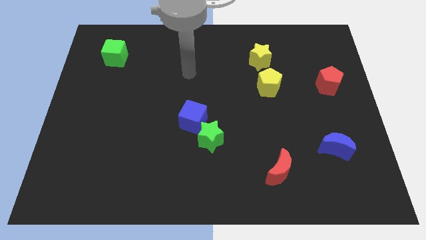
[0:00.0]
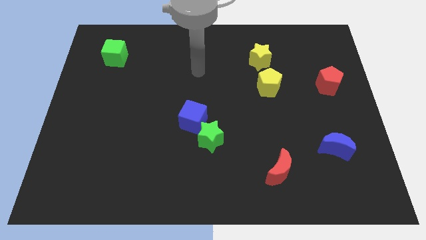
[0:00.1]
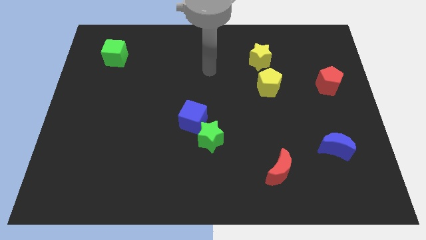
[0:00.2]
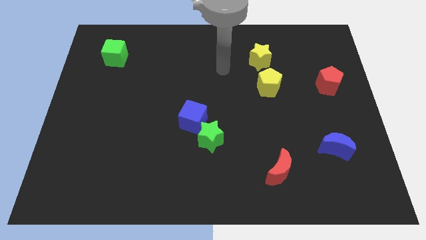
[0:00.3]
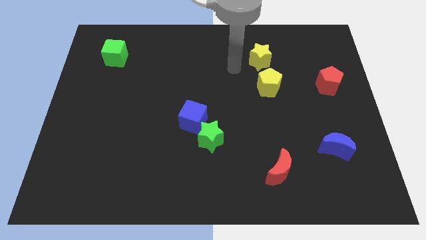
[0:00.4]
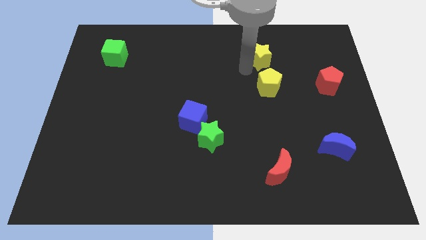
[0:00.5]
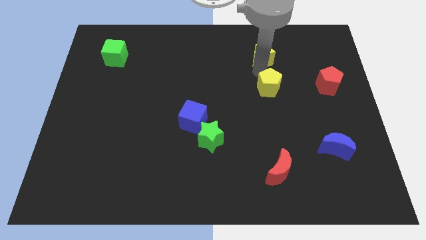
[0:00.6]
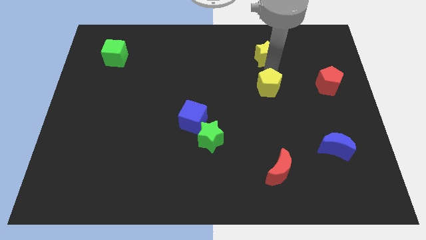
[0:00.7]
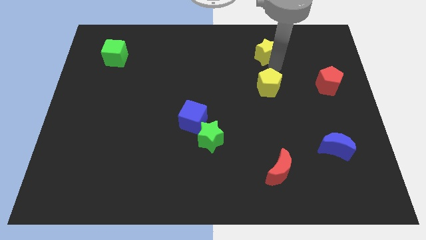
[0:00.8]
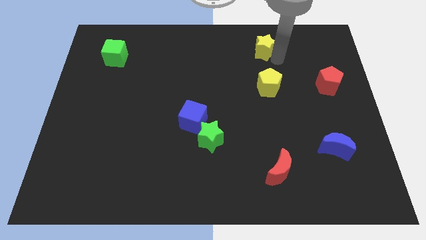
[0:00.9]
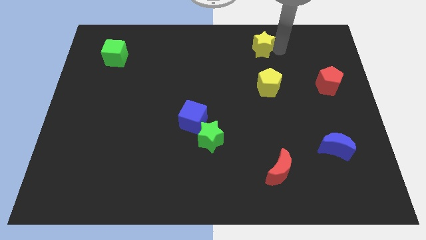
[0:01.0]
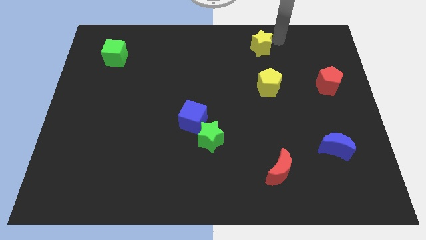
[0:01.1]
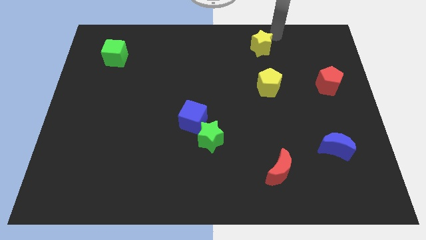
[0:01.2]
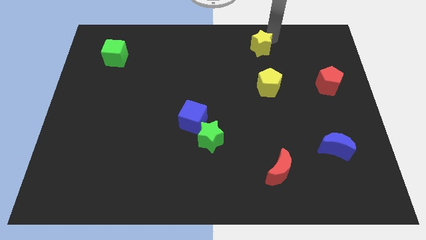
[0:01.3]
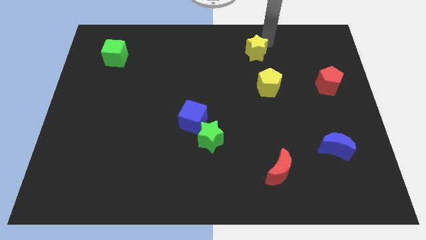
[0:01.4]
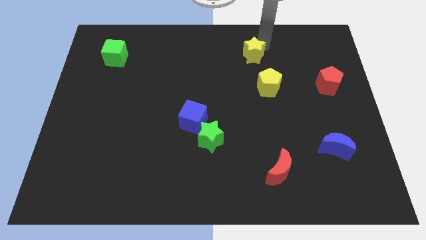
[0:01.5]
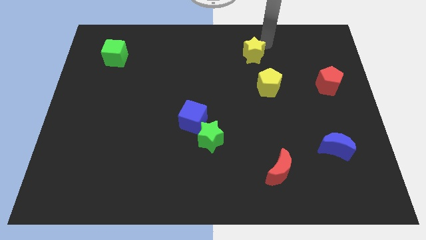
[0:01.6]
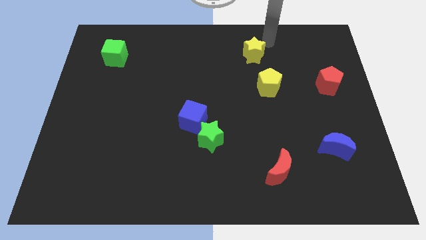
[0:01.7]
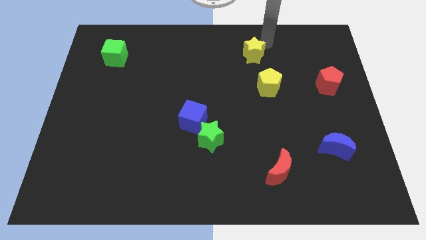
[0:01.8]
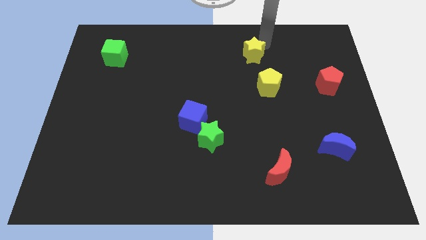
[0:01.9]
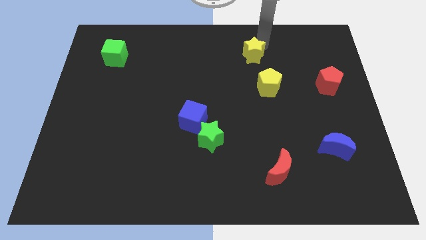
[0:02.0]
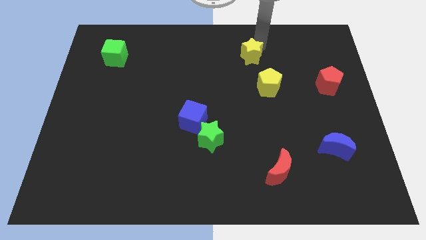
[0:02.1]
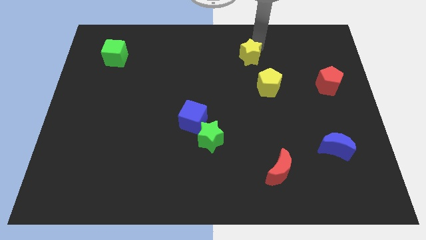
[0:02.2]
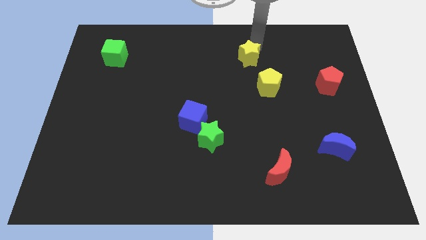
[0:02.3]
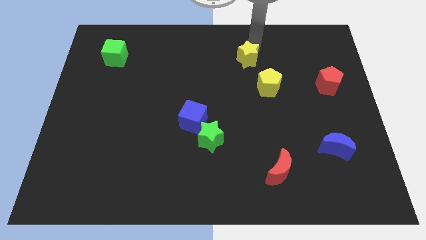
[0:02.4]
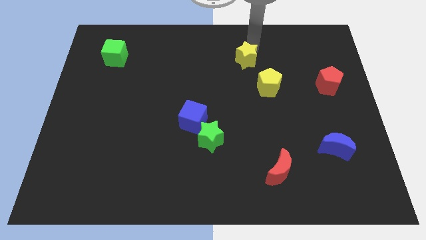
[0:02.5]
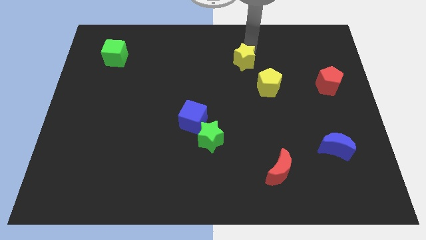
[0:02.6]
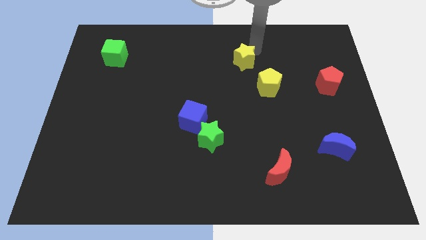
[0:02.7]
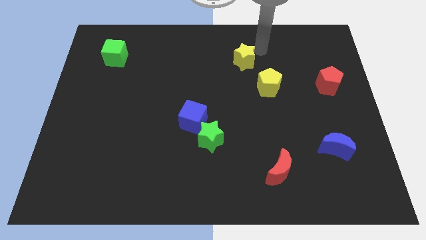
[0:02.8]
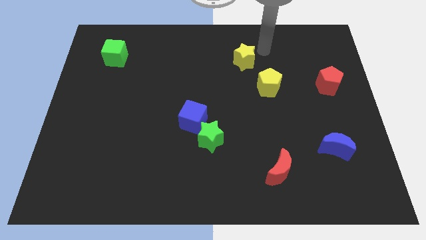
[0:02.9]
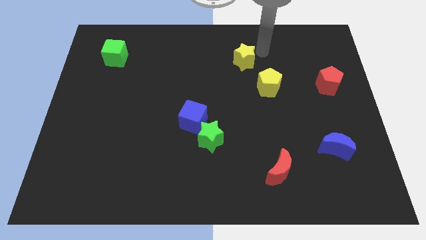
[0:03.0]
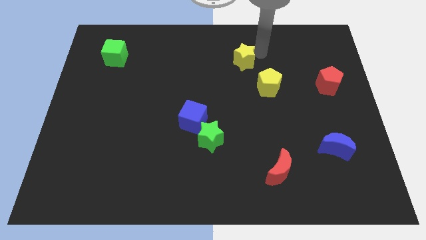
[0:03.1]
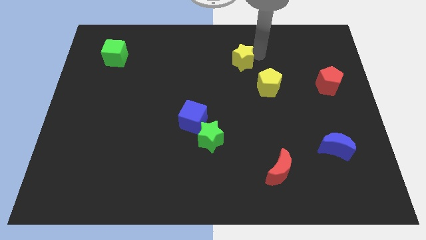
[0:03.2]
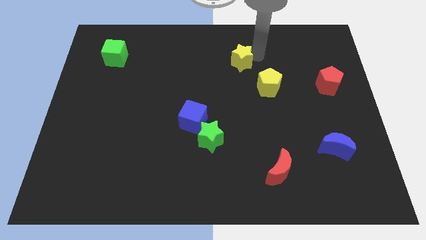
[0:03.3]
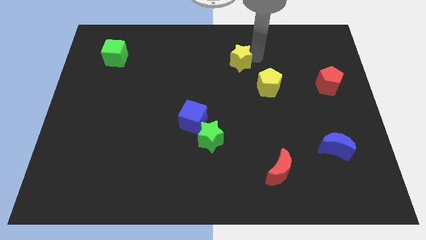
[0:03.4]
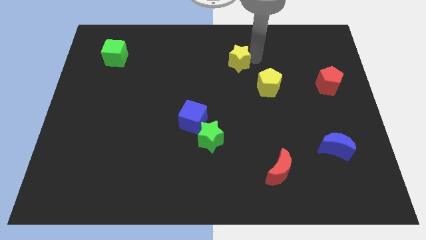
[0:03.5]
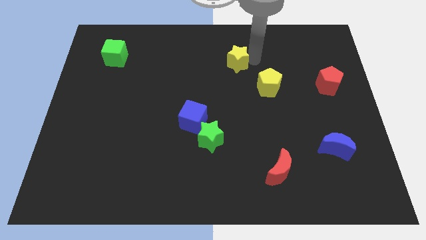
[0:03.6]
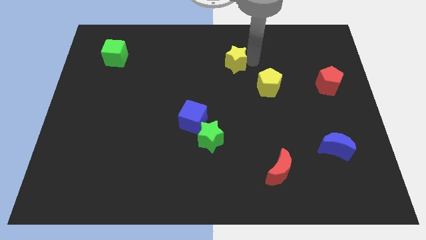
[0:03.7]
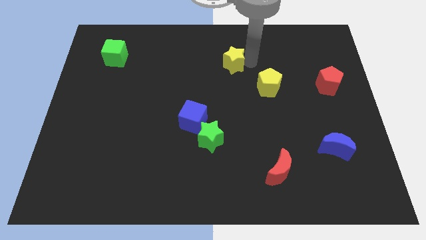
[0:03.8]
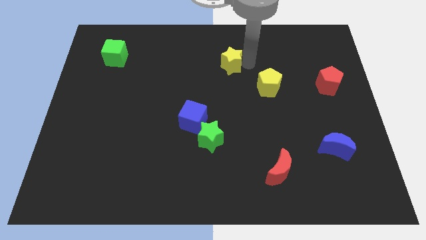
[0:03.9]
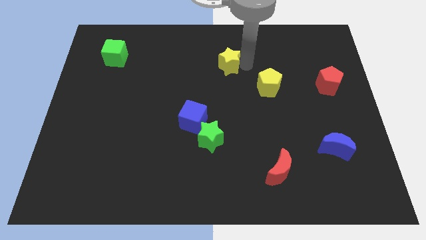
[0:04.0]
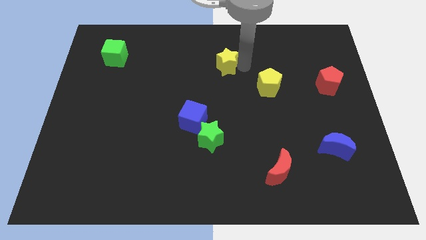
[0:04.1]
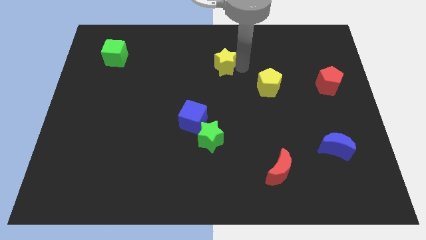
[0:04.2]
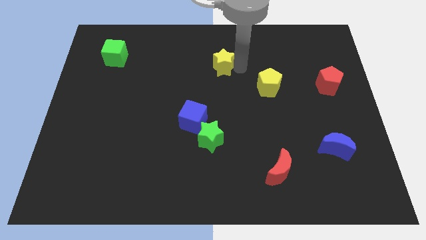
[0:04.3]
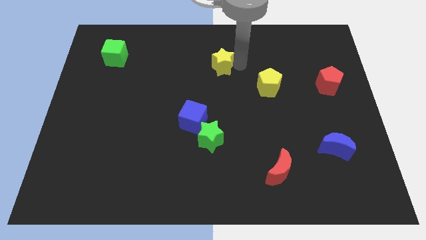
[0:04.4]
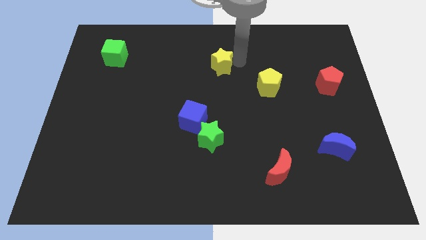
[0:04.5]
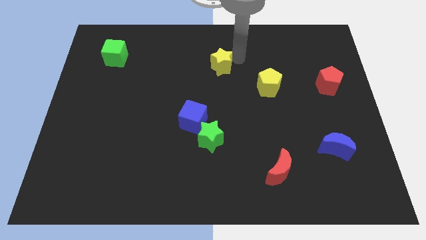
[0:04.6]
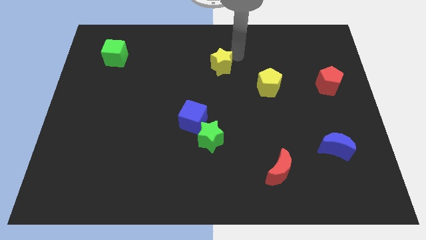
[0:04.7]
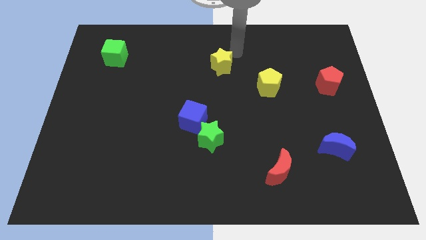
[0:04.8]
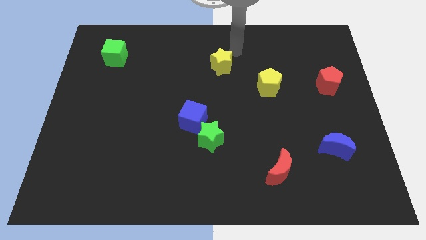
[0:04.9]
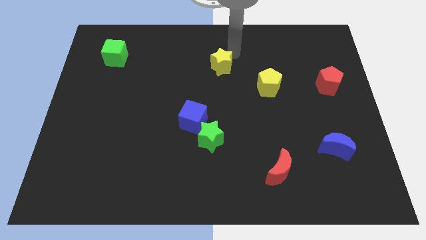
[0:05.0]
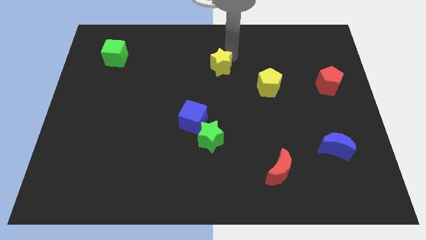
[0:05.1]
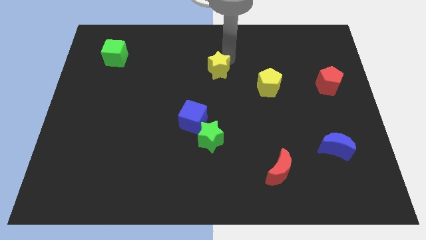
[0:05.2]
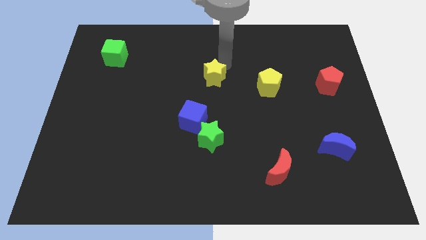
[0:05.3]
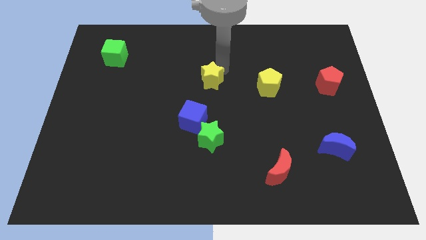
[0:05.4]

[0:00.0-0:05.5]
put the yellow star above the blue cube

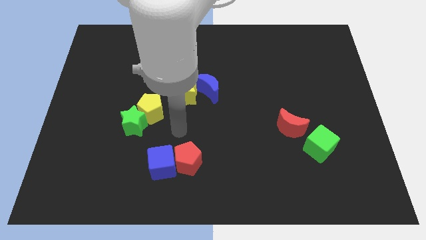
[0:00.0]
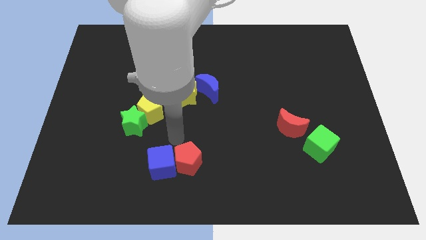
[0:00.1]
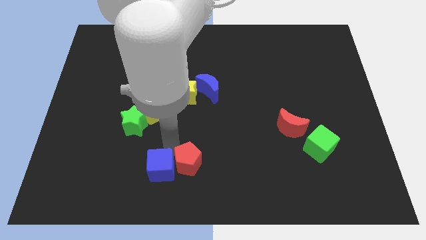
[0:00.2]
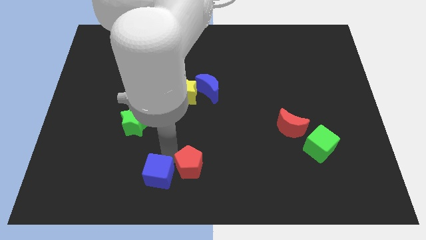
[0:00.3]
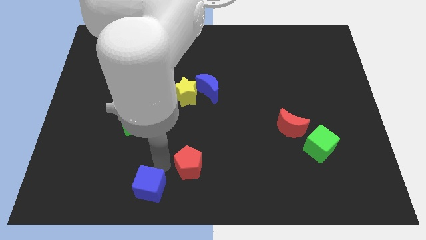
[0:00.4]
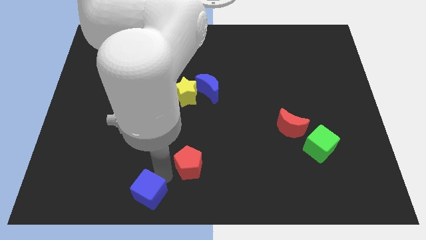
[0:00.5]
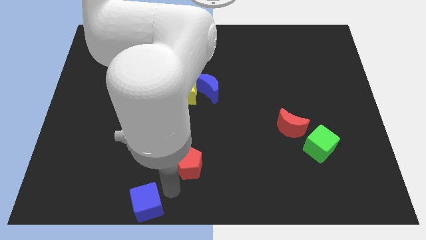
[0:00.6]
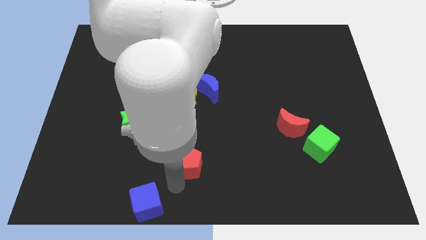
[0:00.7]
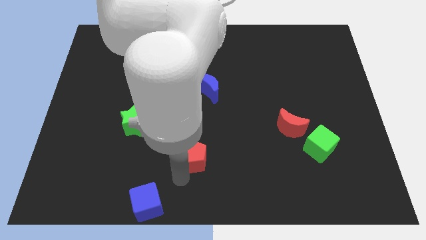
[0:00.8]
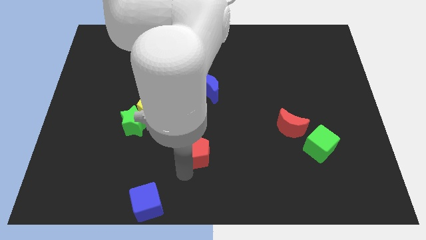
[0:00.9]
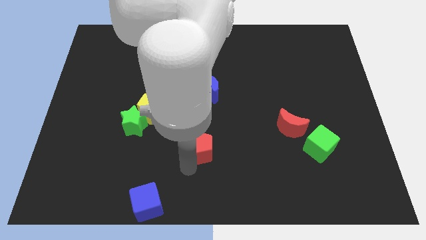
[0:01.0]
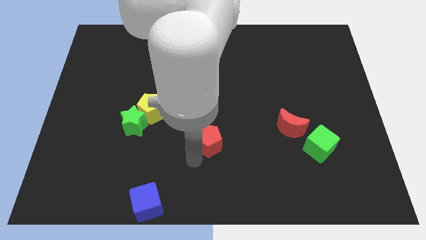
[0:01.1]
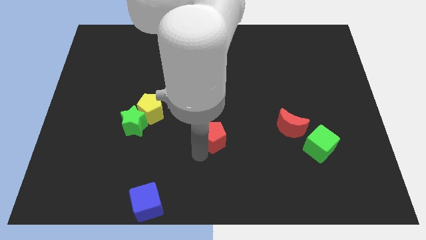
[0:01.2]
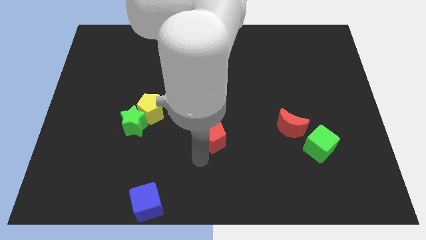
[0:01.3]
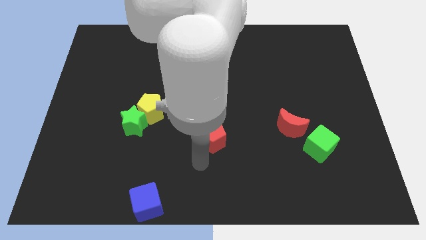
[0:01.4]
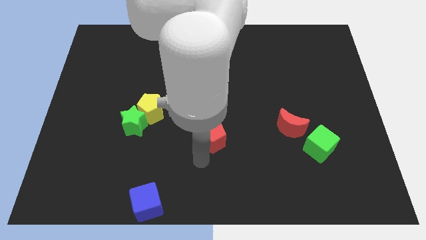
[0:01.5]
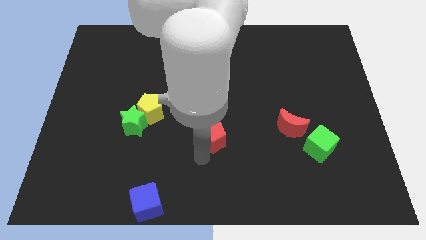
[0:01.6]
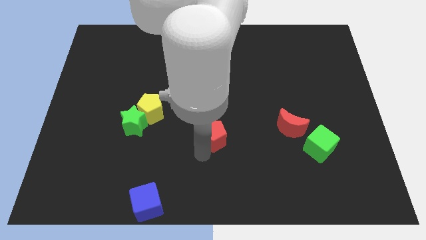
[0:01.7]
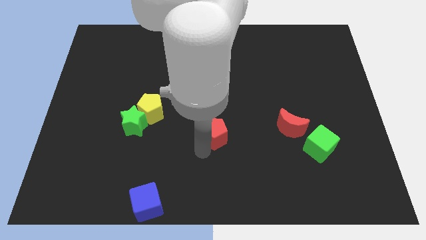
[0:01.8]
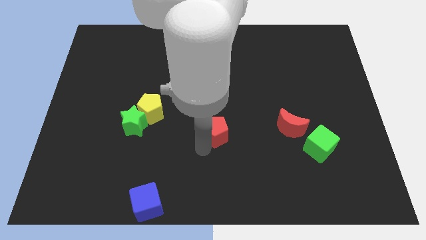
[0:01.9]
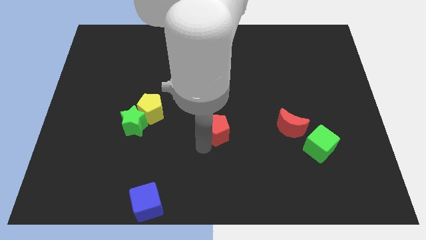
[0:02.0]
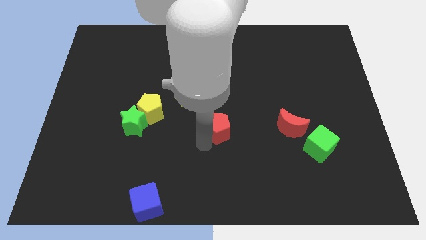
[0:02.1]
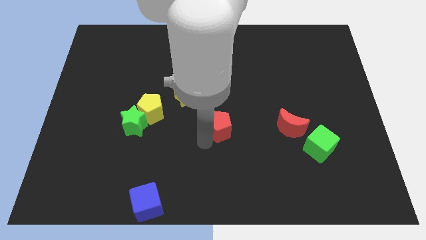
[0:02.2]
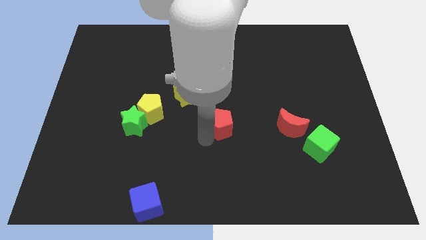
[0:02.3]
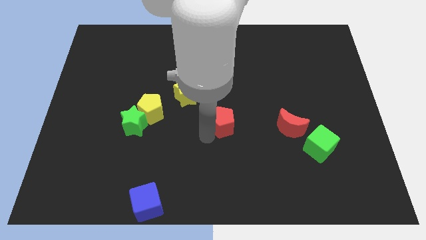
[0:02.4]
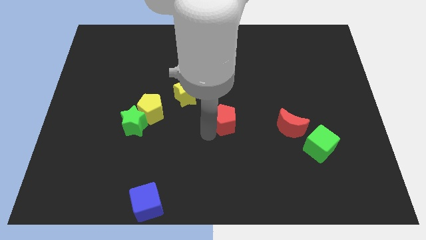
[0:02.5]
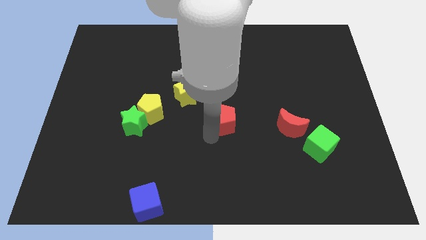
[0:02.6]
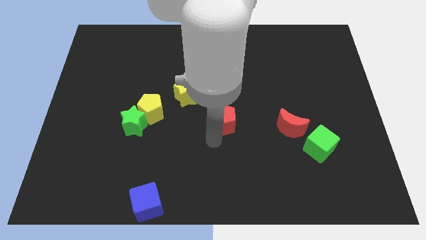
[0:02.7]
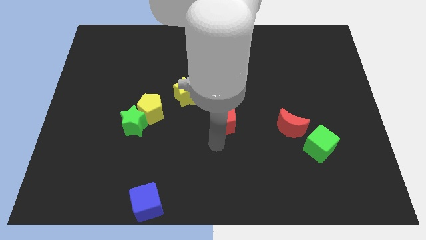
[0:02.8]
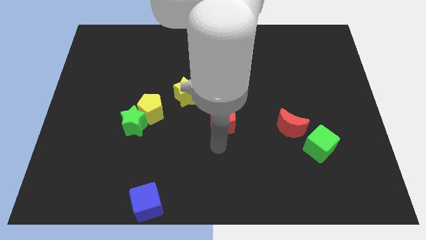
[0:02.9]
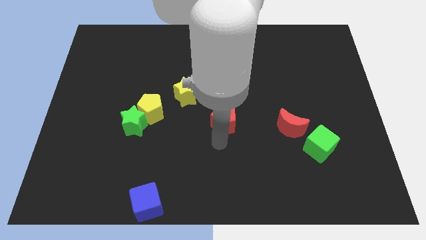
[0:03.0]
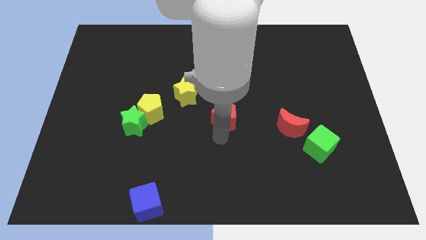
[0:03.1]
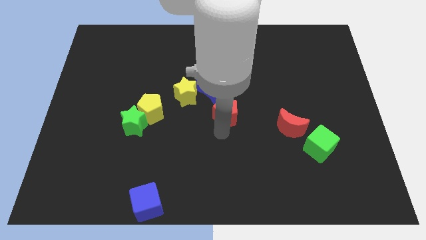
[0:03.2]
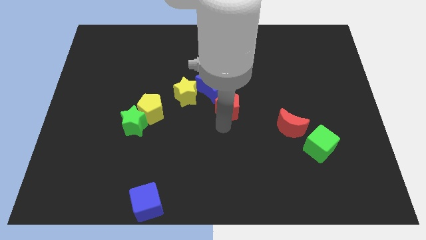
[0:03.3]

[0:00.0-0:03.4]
slide the red pentagon to the right side of the yellow star
